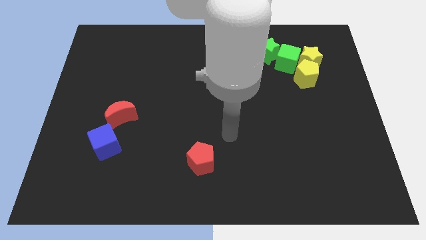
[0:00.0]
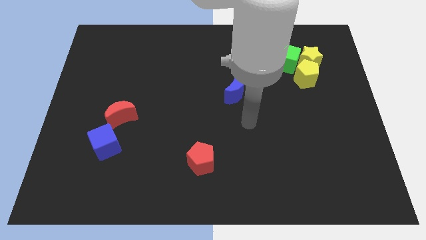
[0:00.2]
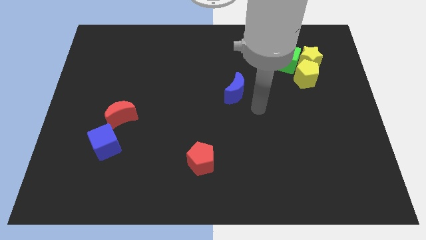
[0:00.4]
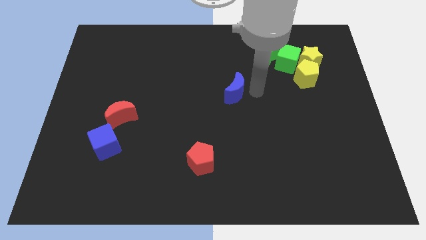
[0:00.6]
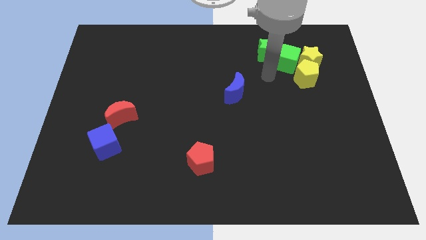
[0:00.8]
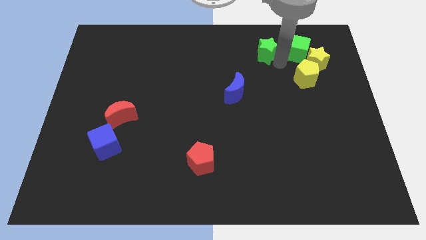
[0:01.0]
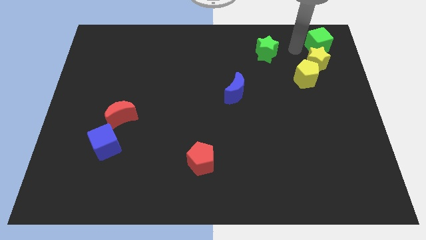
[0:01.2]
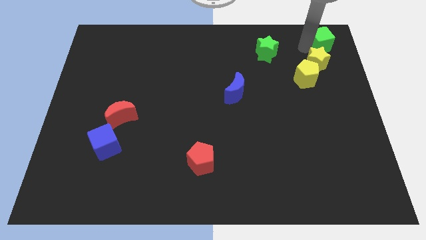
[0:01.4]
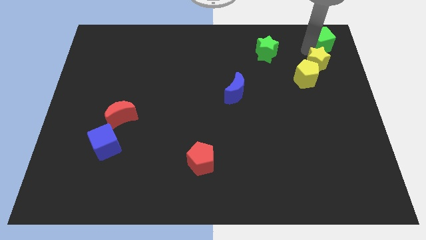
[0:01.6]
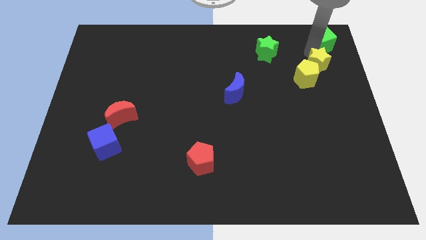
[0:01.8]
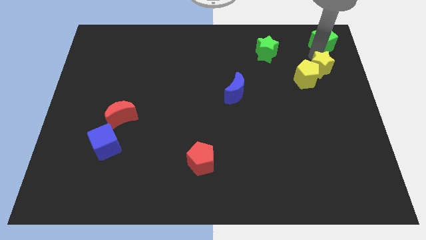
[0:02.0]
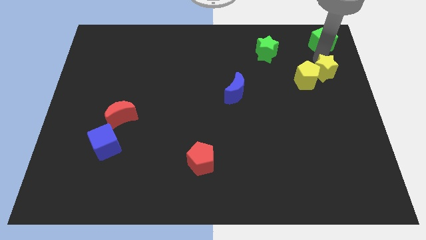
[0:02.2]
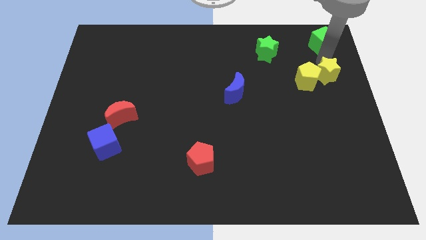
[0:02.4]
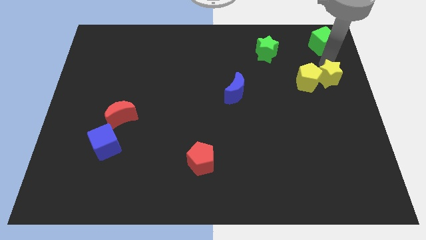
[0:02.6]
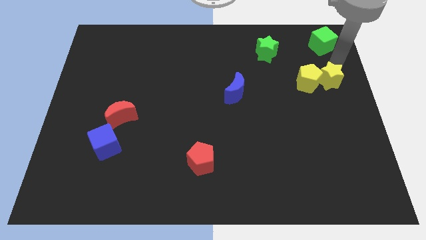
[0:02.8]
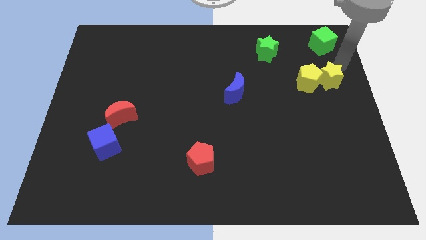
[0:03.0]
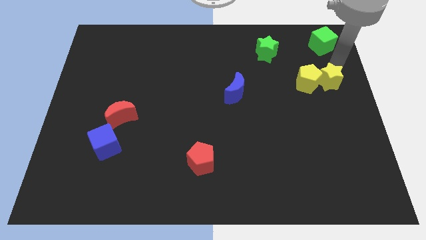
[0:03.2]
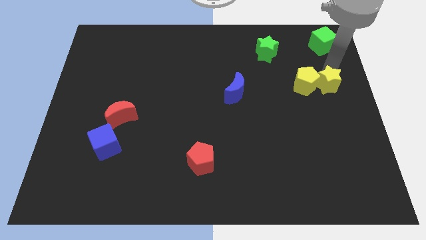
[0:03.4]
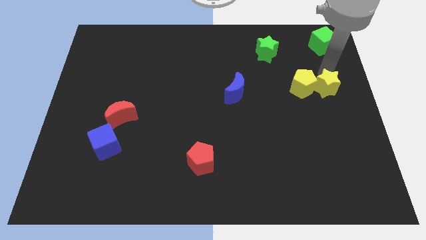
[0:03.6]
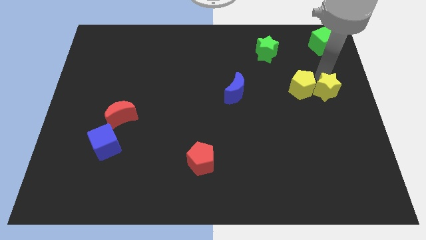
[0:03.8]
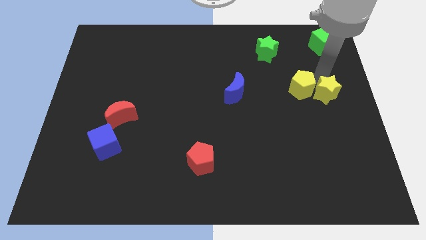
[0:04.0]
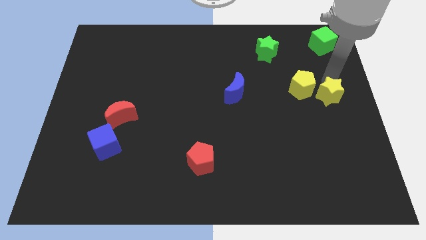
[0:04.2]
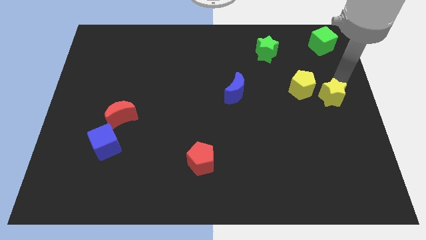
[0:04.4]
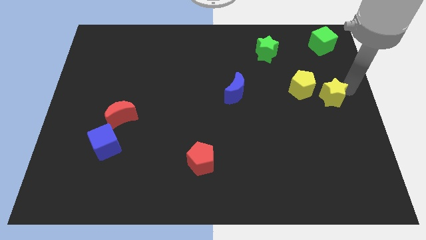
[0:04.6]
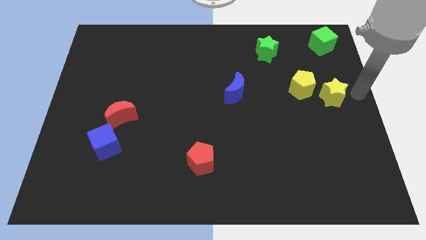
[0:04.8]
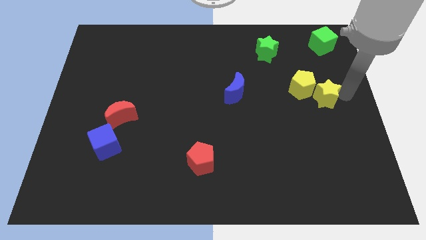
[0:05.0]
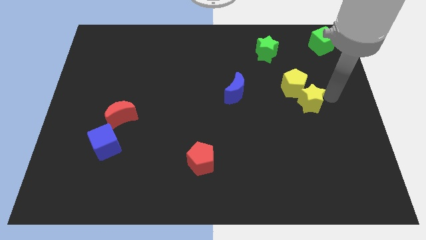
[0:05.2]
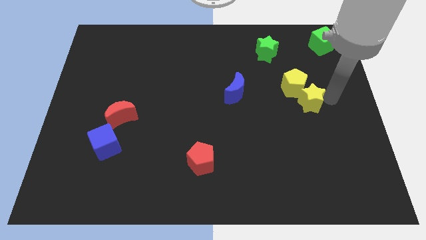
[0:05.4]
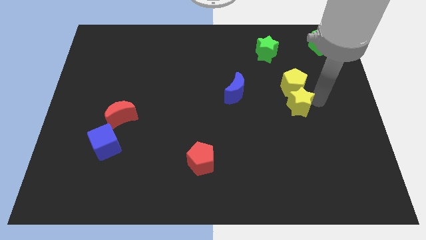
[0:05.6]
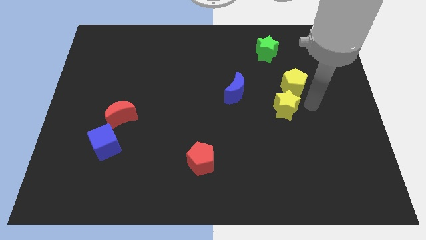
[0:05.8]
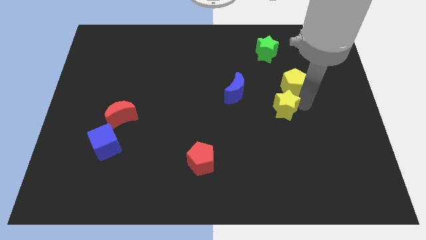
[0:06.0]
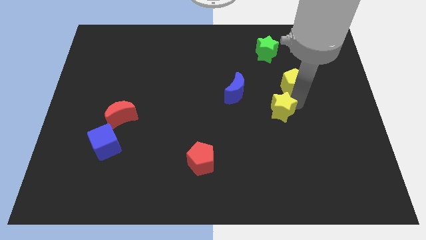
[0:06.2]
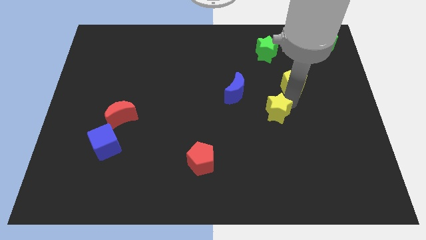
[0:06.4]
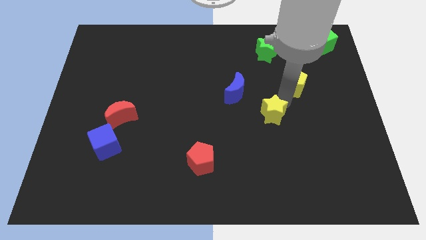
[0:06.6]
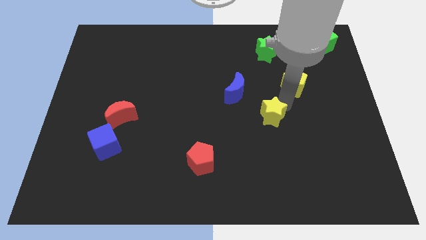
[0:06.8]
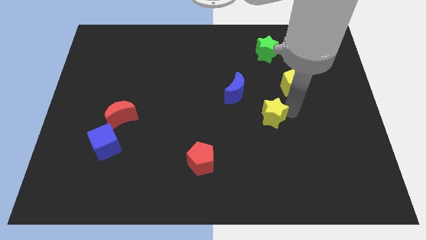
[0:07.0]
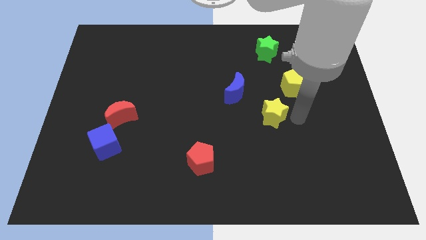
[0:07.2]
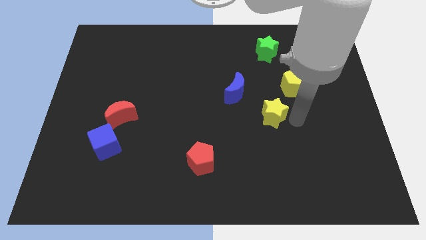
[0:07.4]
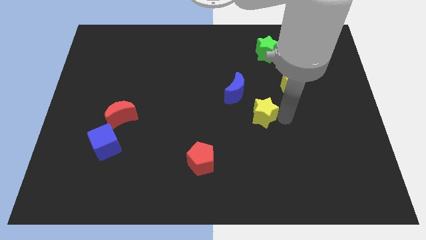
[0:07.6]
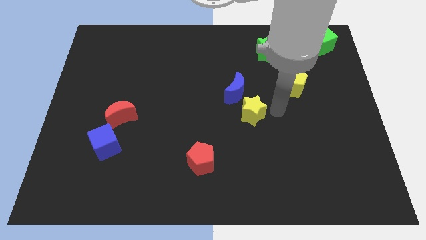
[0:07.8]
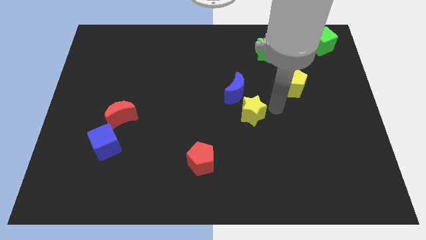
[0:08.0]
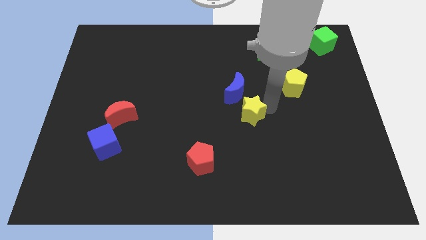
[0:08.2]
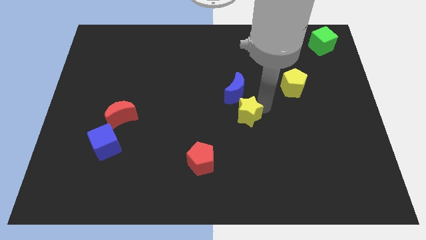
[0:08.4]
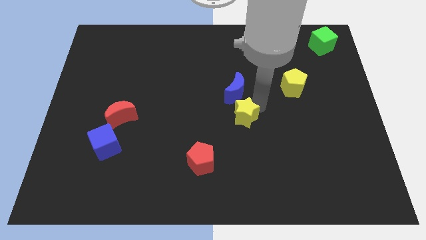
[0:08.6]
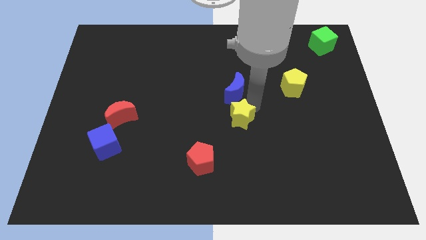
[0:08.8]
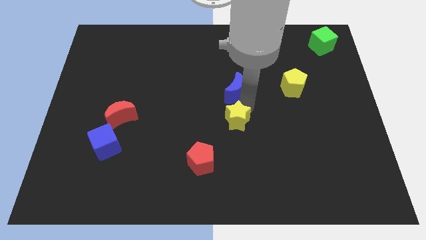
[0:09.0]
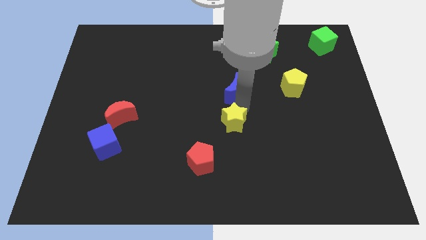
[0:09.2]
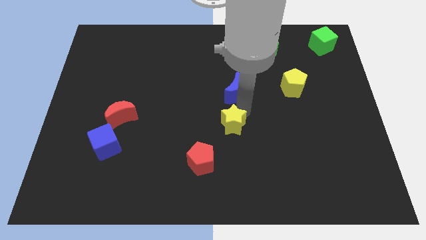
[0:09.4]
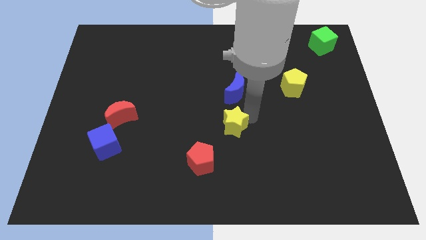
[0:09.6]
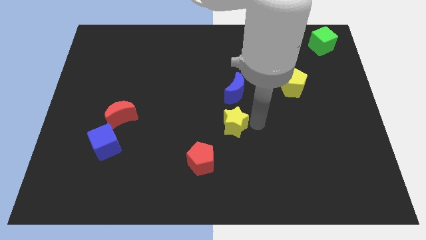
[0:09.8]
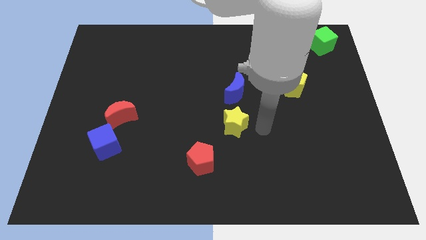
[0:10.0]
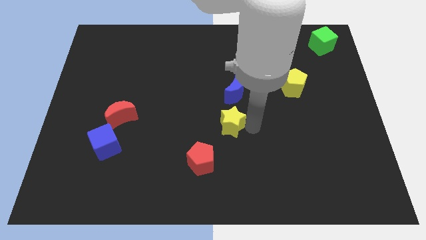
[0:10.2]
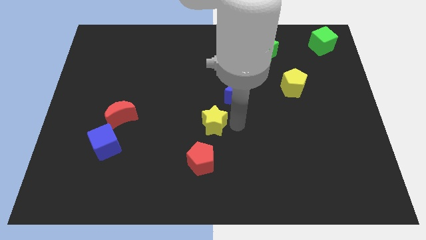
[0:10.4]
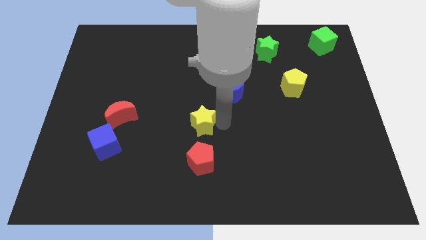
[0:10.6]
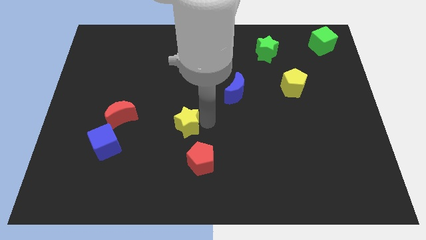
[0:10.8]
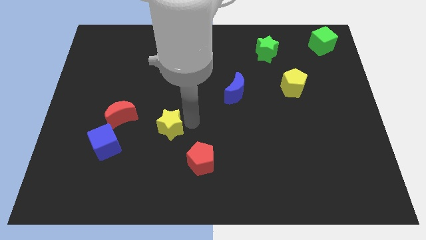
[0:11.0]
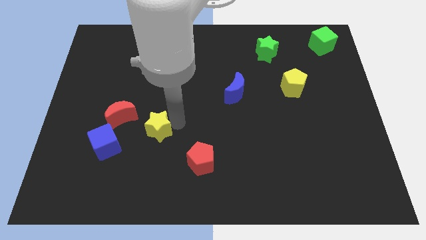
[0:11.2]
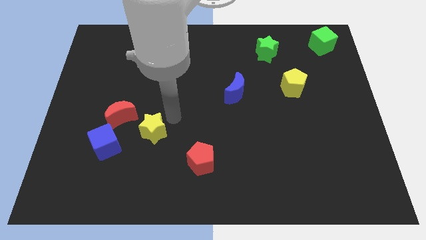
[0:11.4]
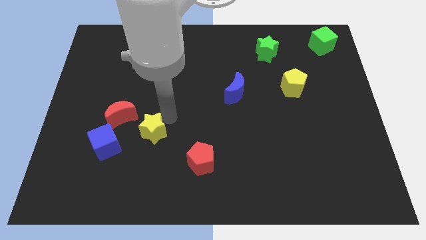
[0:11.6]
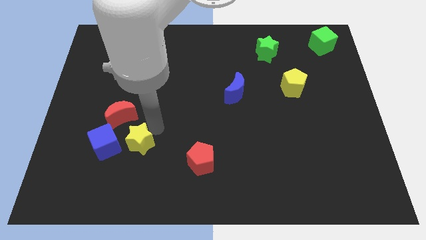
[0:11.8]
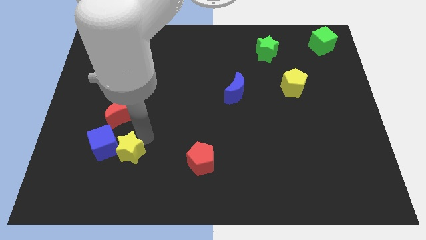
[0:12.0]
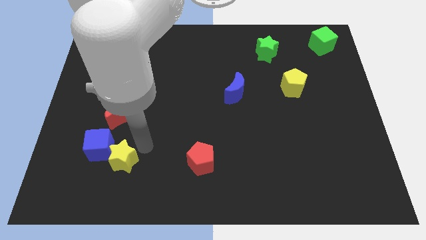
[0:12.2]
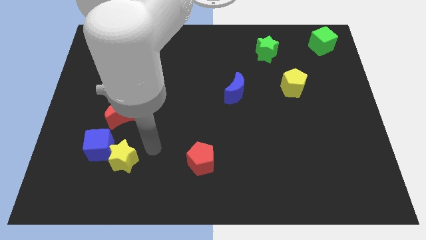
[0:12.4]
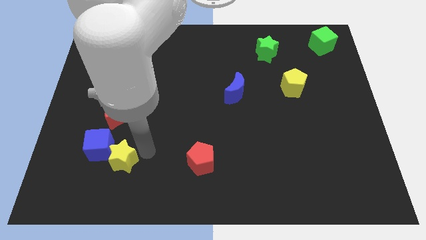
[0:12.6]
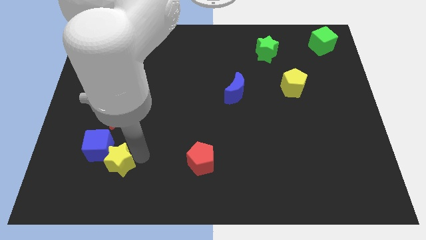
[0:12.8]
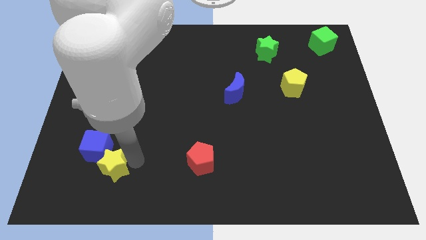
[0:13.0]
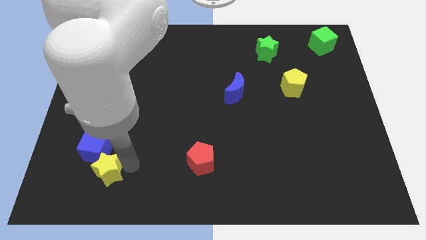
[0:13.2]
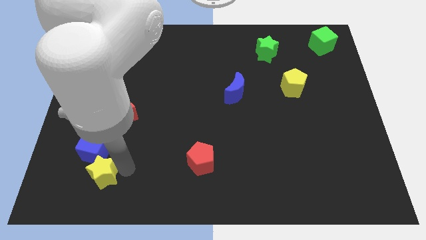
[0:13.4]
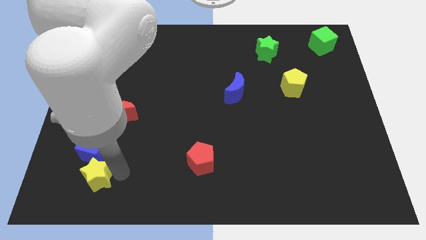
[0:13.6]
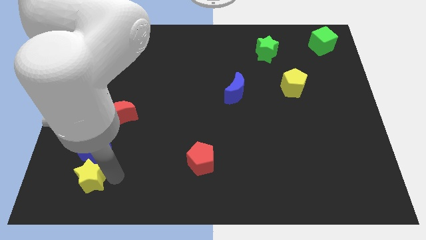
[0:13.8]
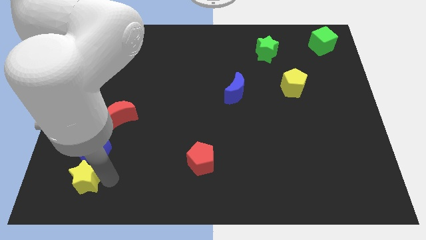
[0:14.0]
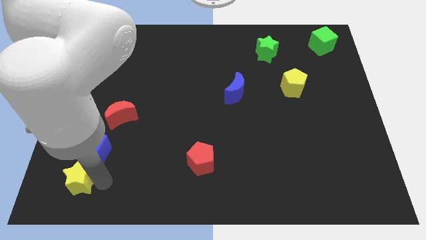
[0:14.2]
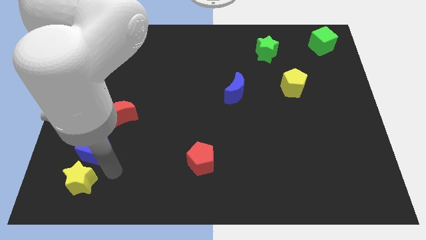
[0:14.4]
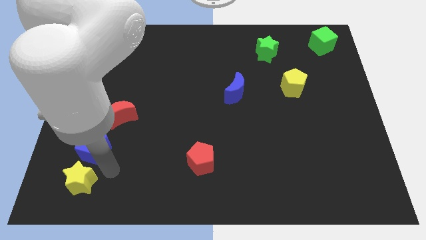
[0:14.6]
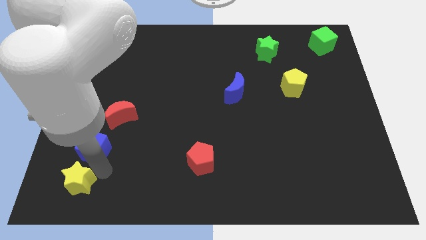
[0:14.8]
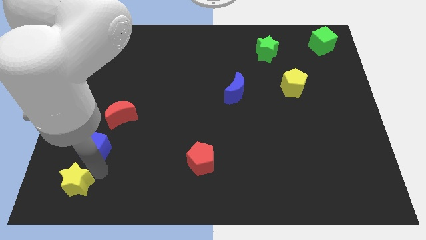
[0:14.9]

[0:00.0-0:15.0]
put the yellow star to the lower left corner
